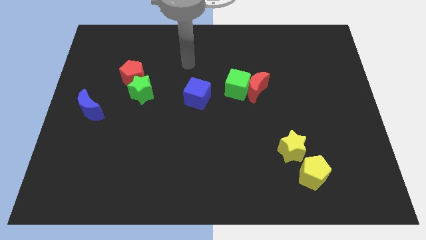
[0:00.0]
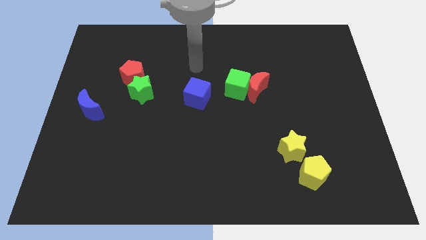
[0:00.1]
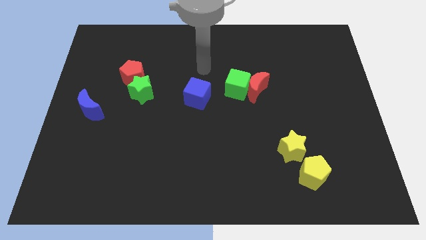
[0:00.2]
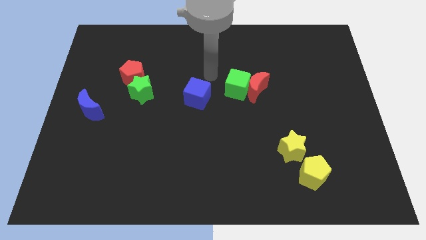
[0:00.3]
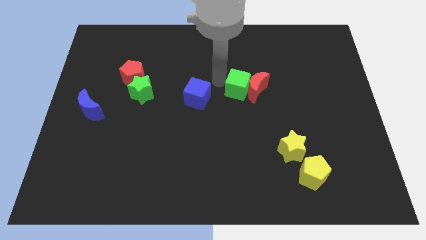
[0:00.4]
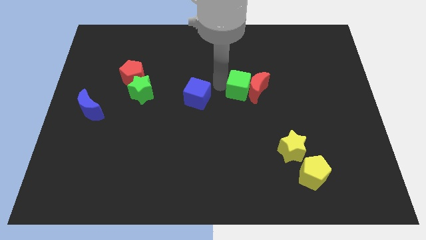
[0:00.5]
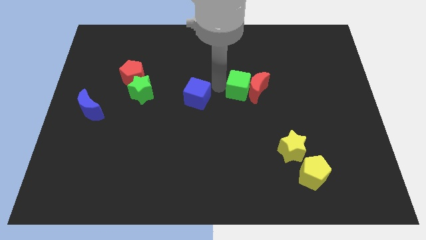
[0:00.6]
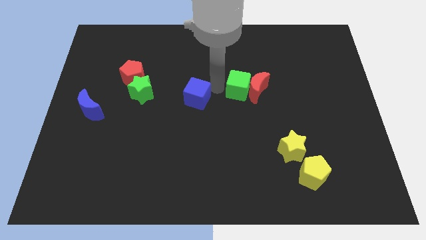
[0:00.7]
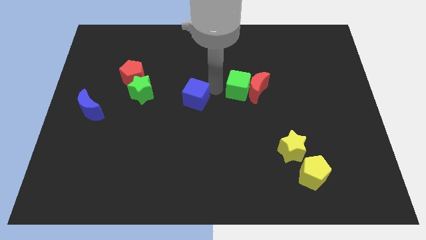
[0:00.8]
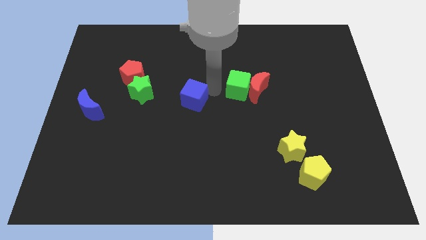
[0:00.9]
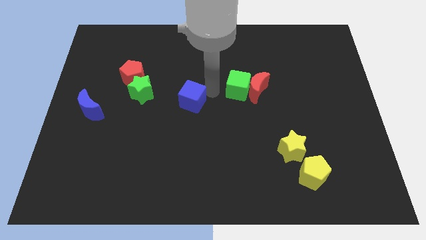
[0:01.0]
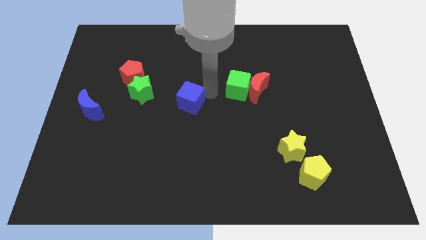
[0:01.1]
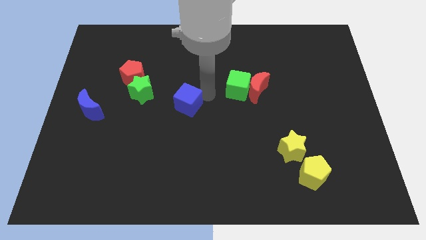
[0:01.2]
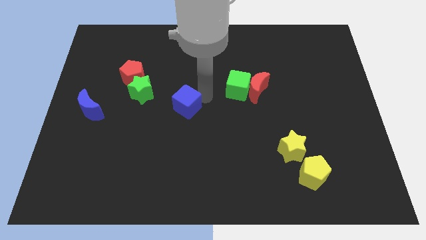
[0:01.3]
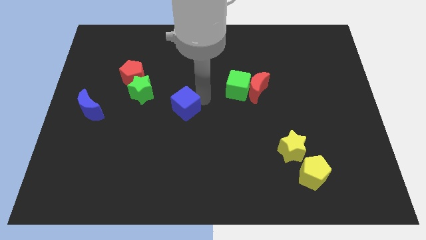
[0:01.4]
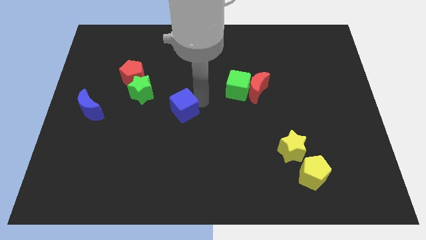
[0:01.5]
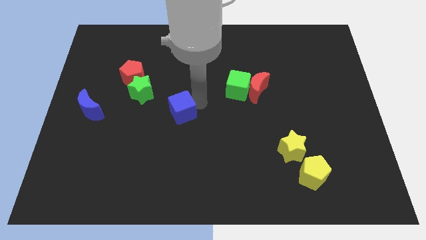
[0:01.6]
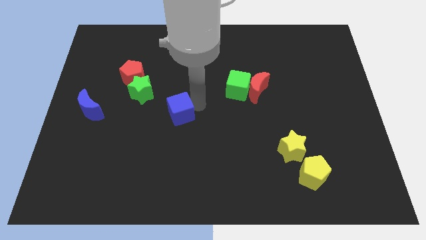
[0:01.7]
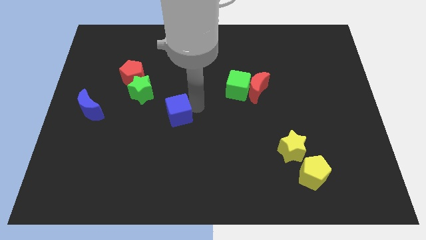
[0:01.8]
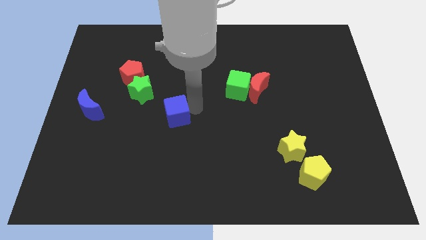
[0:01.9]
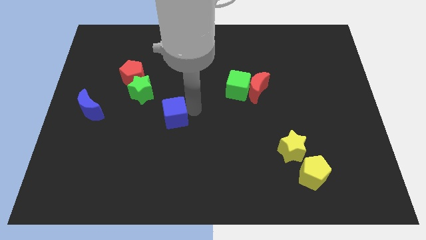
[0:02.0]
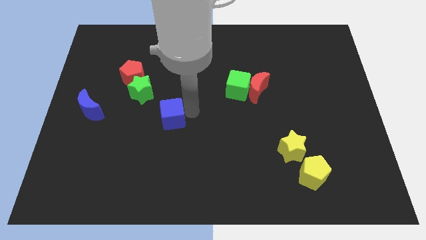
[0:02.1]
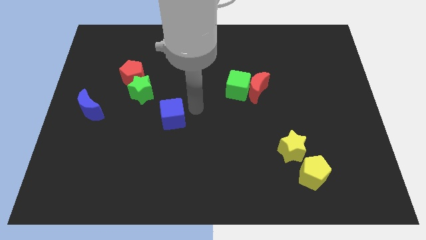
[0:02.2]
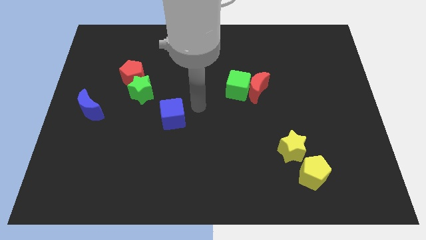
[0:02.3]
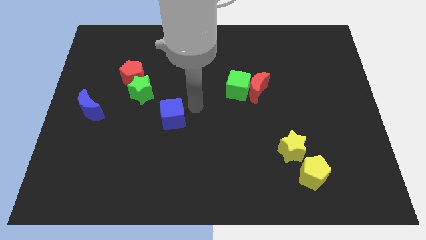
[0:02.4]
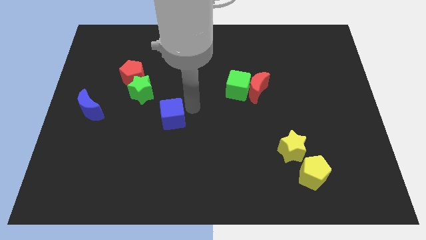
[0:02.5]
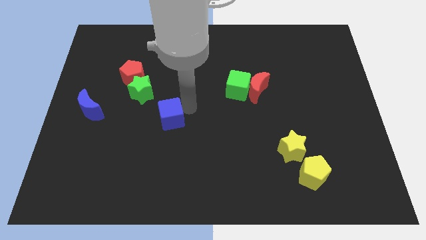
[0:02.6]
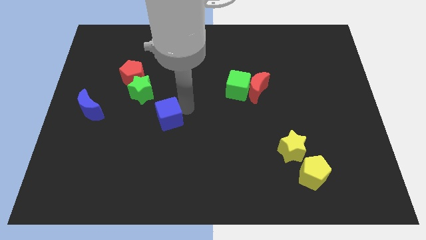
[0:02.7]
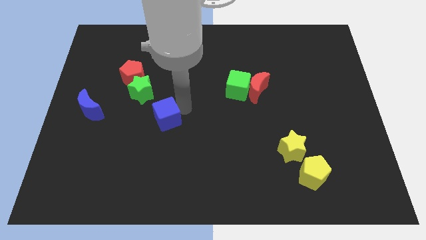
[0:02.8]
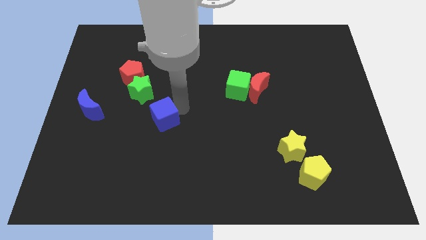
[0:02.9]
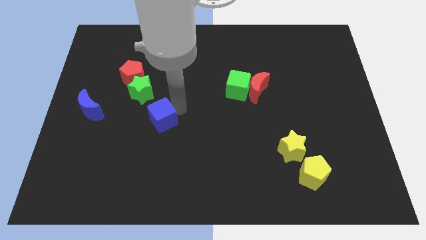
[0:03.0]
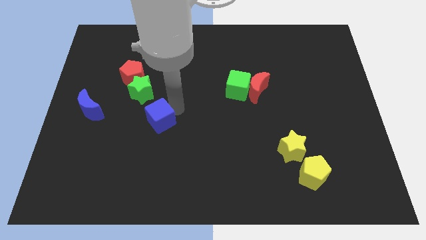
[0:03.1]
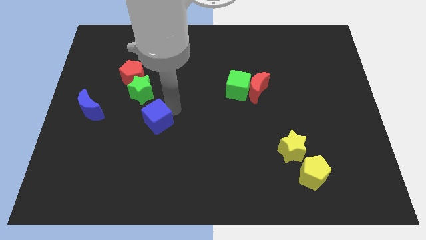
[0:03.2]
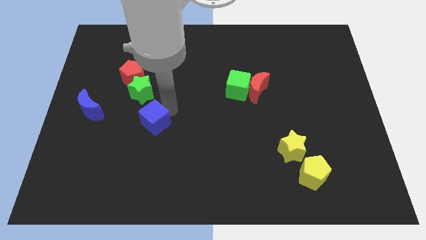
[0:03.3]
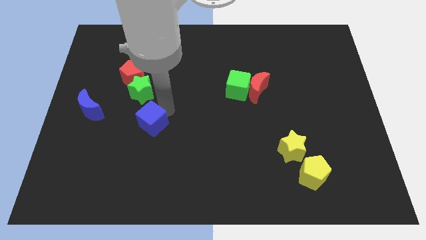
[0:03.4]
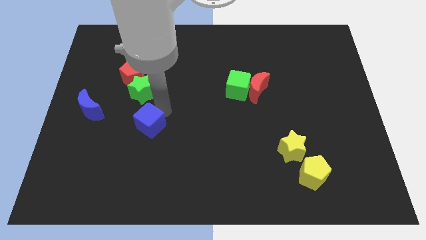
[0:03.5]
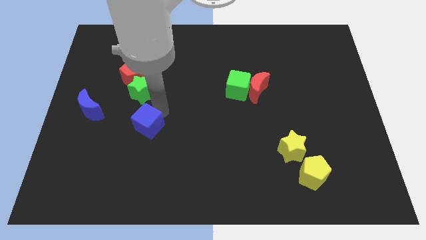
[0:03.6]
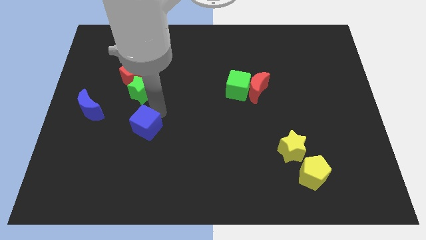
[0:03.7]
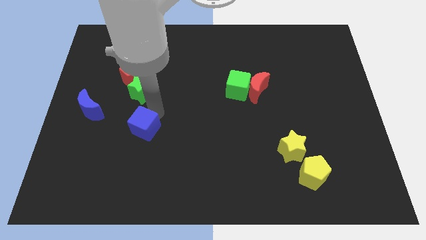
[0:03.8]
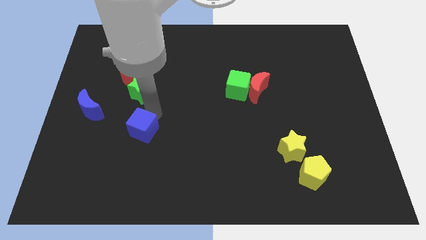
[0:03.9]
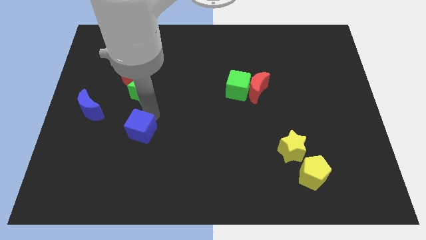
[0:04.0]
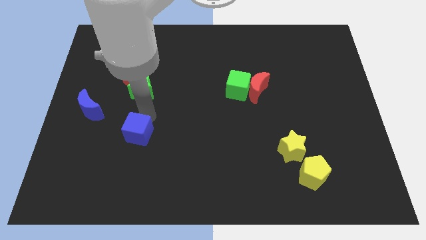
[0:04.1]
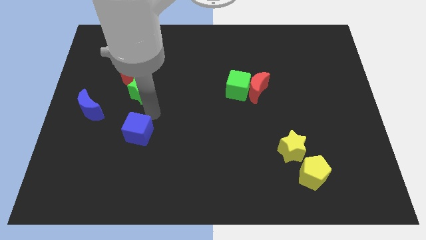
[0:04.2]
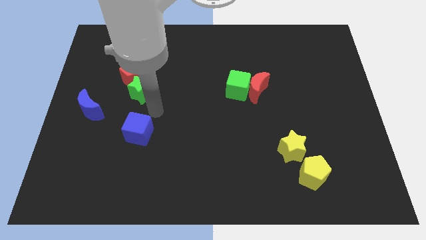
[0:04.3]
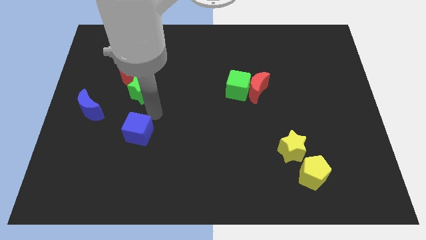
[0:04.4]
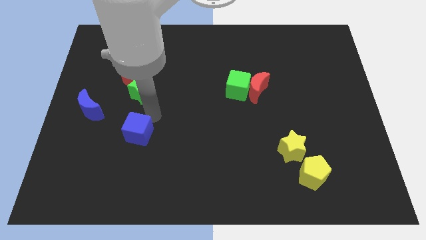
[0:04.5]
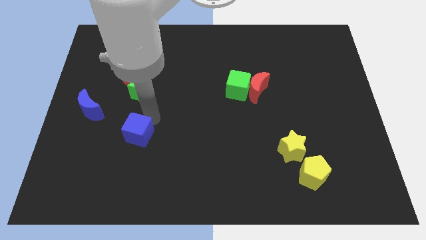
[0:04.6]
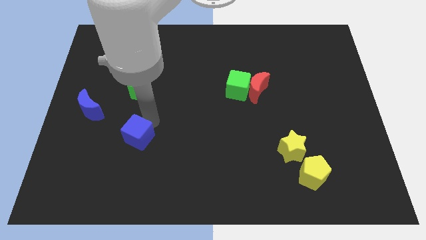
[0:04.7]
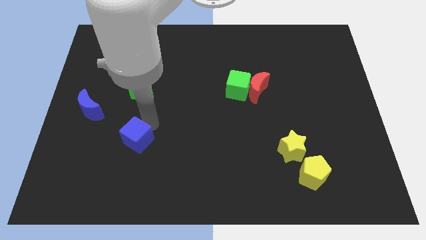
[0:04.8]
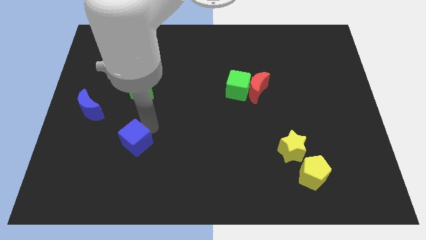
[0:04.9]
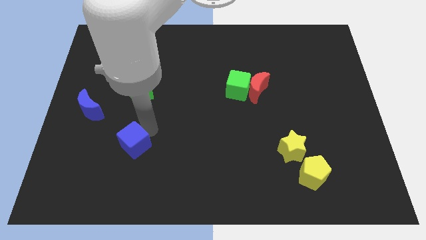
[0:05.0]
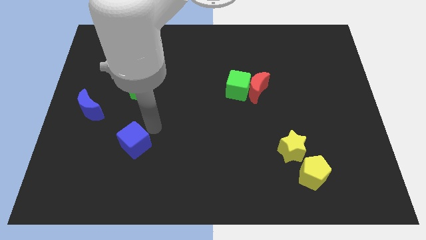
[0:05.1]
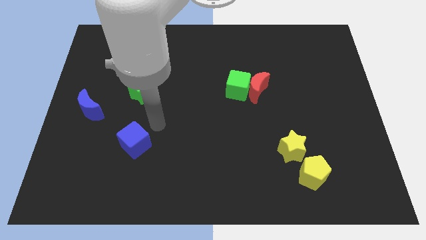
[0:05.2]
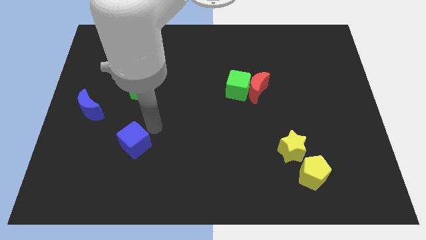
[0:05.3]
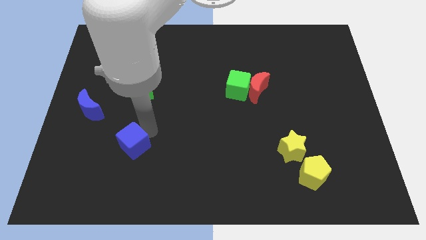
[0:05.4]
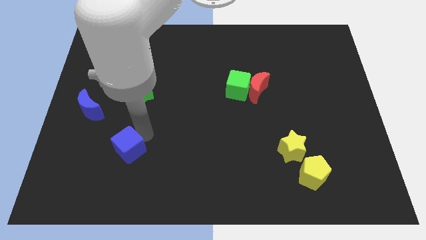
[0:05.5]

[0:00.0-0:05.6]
push the blue cube down and then left

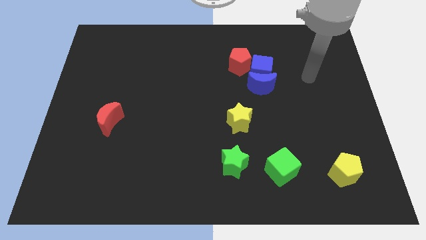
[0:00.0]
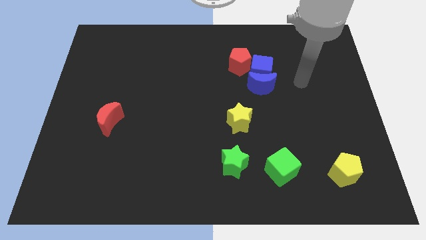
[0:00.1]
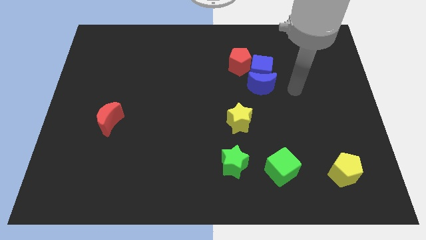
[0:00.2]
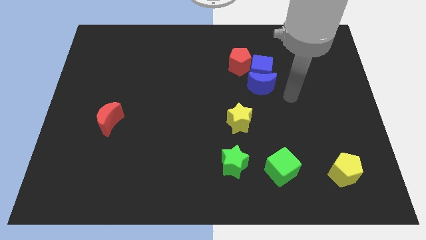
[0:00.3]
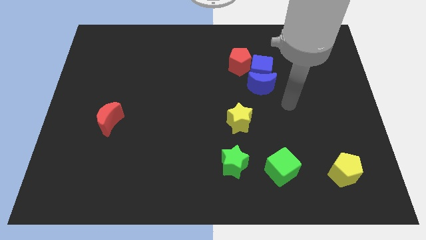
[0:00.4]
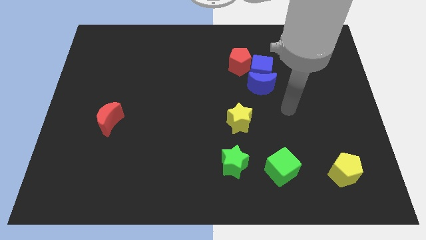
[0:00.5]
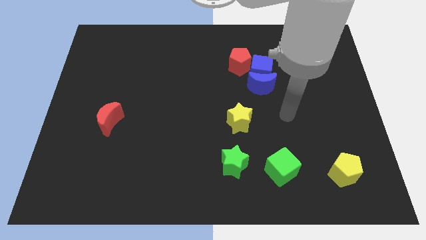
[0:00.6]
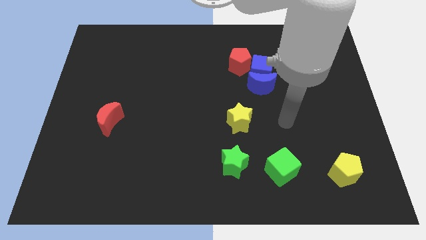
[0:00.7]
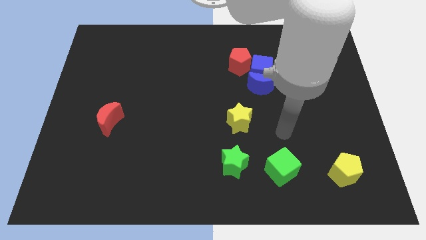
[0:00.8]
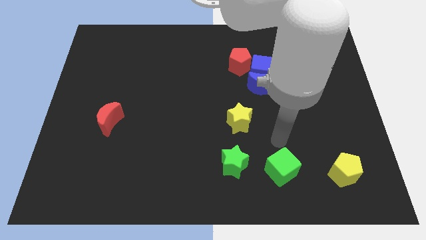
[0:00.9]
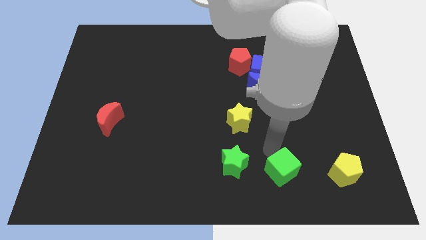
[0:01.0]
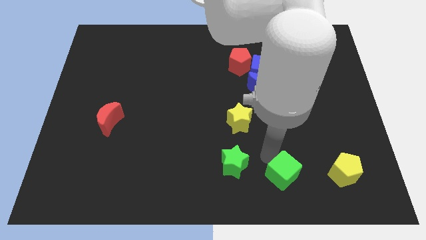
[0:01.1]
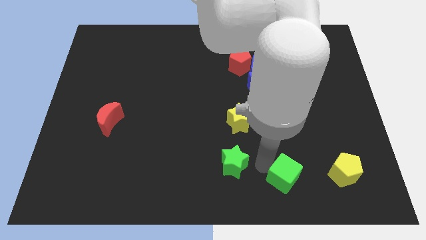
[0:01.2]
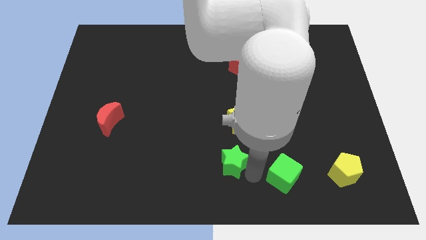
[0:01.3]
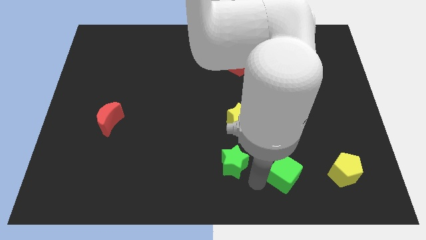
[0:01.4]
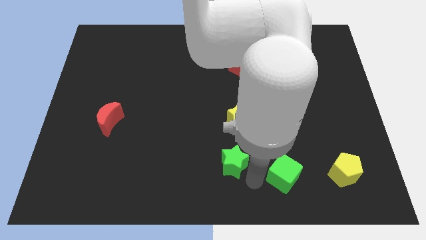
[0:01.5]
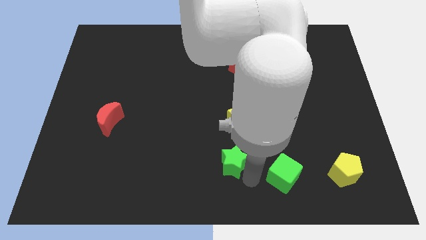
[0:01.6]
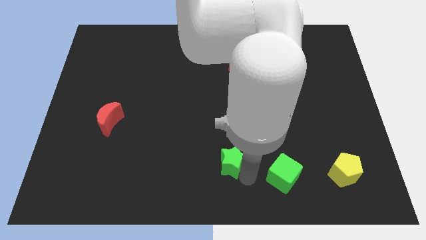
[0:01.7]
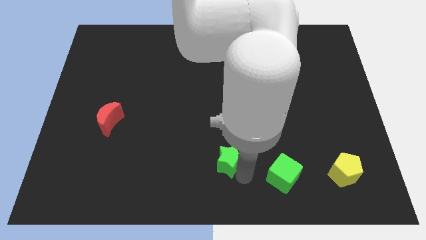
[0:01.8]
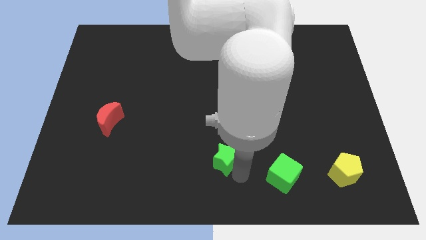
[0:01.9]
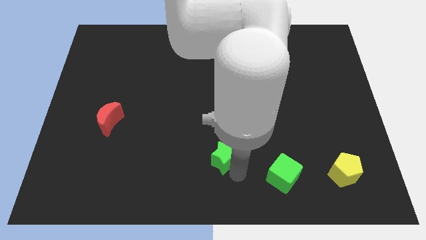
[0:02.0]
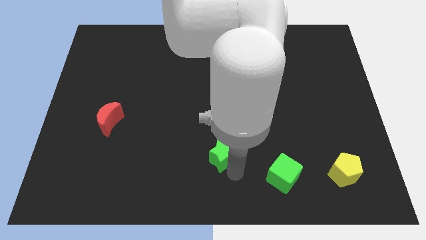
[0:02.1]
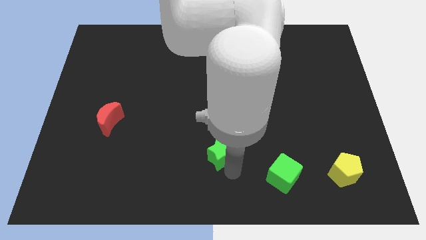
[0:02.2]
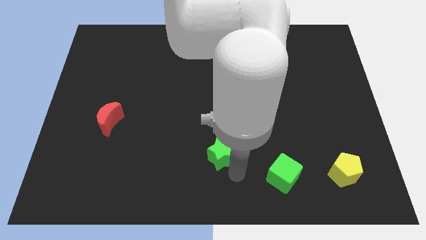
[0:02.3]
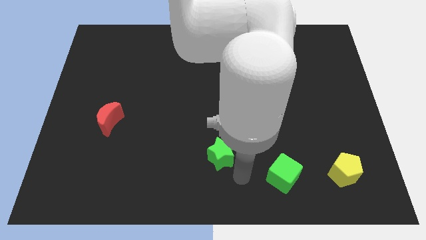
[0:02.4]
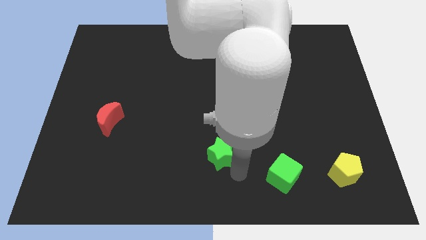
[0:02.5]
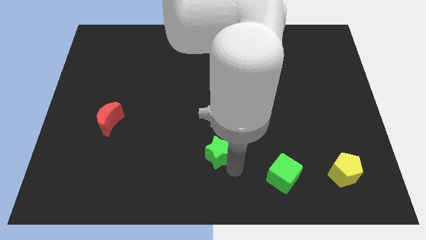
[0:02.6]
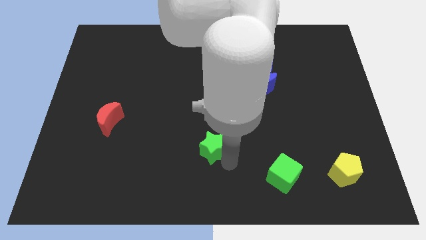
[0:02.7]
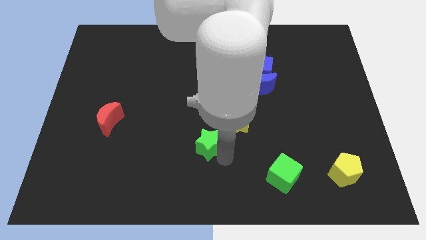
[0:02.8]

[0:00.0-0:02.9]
slide the green star a little upwards and then to the left
